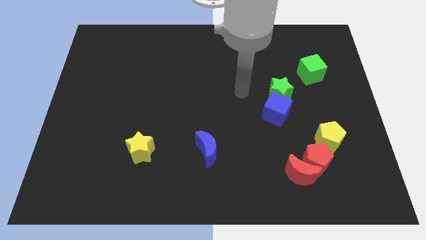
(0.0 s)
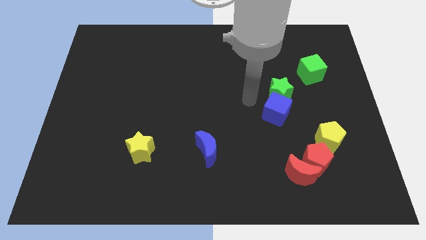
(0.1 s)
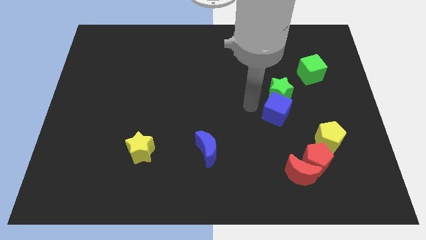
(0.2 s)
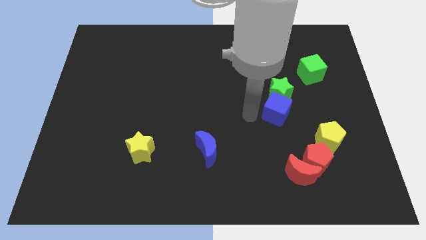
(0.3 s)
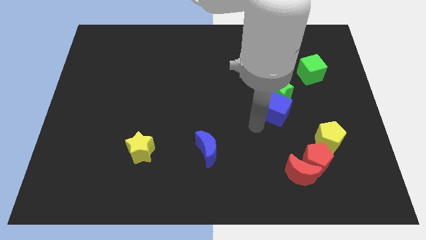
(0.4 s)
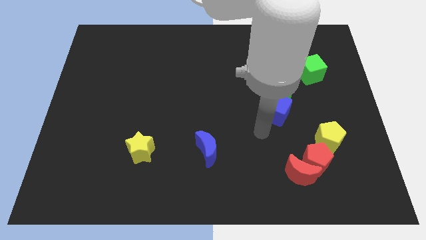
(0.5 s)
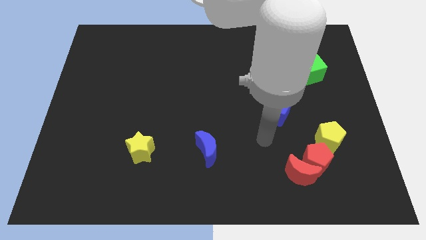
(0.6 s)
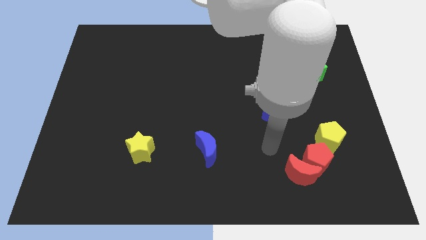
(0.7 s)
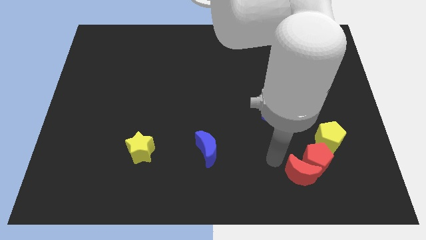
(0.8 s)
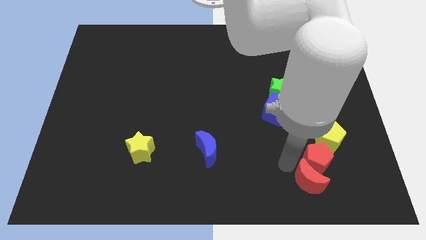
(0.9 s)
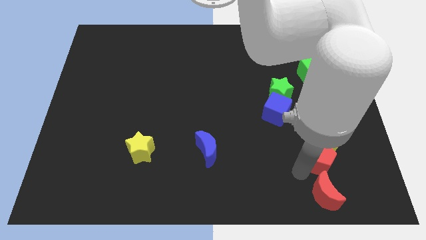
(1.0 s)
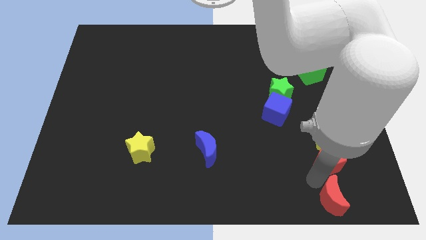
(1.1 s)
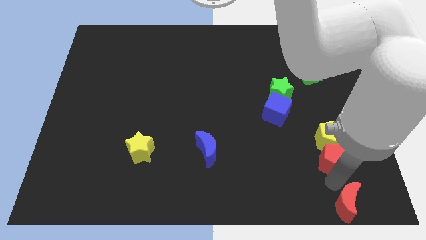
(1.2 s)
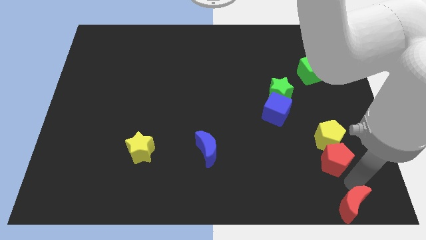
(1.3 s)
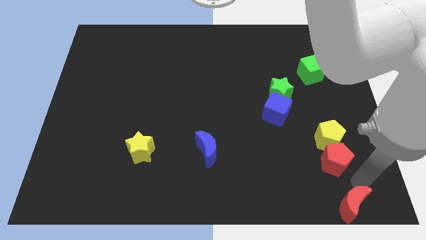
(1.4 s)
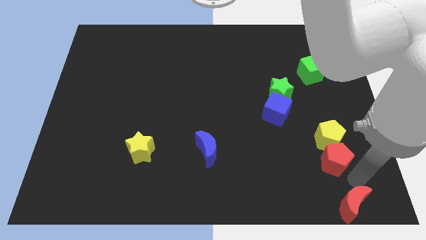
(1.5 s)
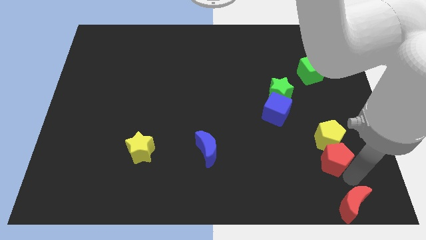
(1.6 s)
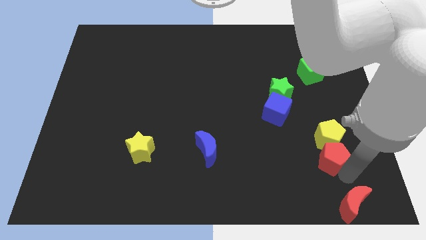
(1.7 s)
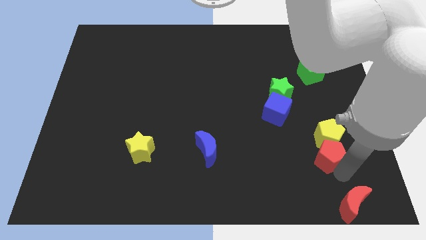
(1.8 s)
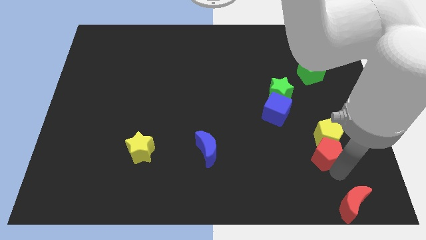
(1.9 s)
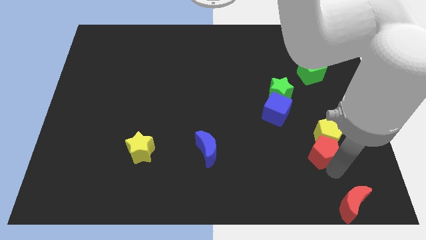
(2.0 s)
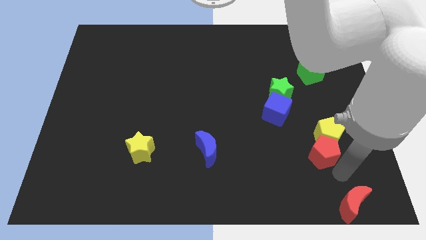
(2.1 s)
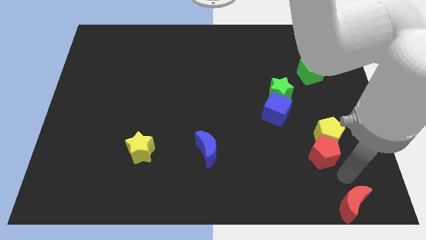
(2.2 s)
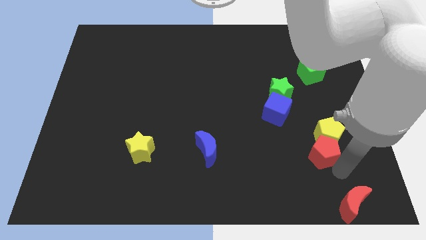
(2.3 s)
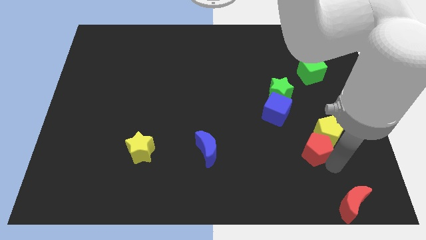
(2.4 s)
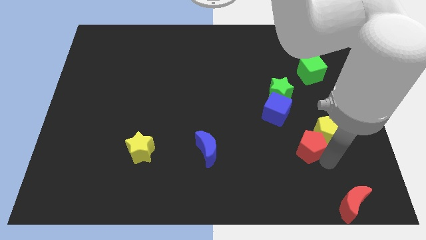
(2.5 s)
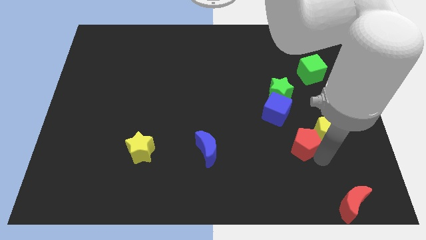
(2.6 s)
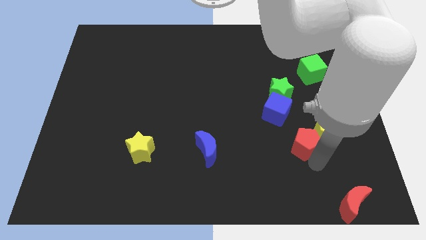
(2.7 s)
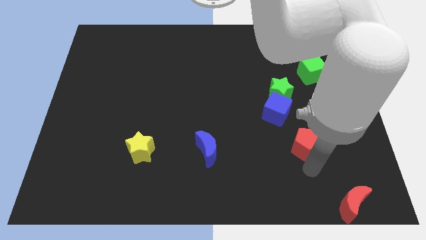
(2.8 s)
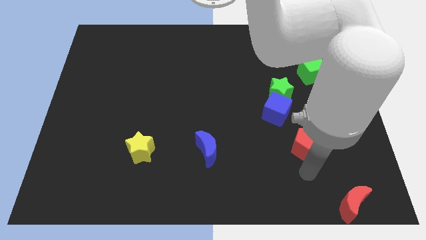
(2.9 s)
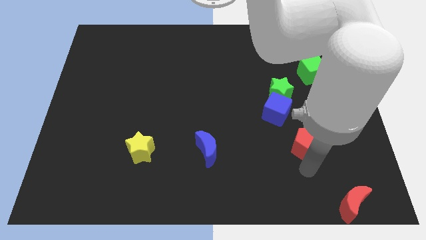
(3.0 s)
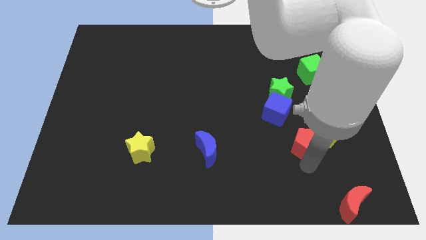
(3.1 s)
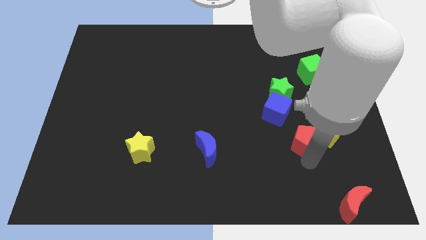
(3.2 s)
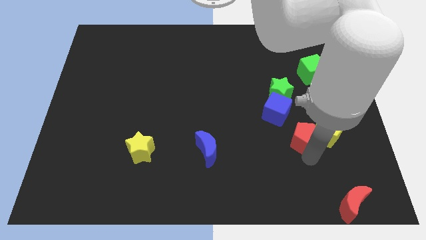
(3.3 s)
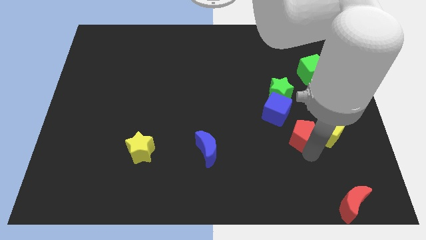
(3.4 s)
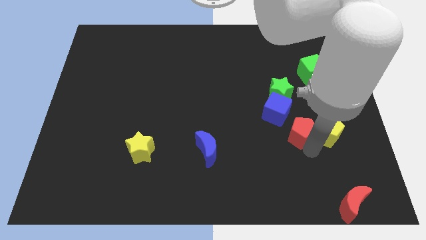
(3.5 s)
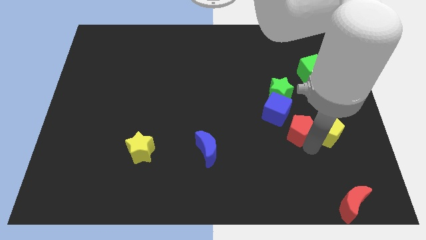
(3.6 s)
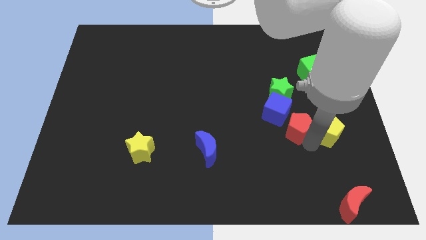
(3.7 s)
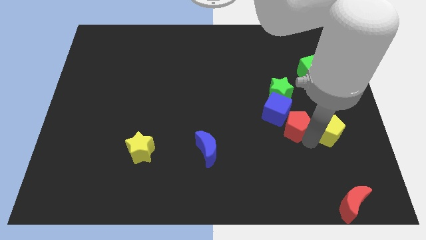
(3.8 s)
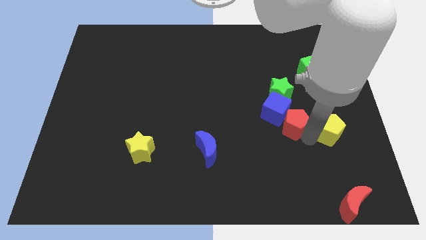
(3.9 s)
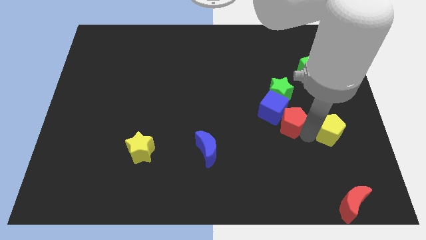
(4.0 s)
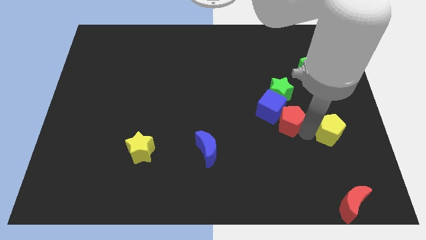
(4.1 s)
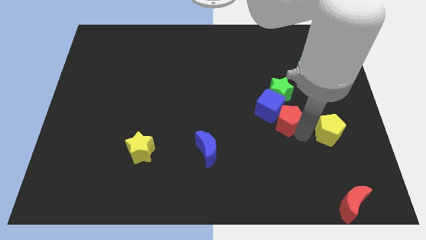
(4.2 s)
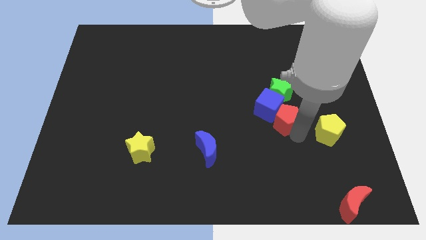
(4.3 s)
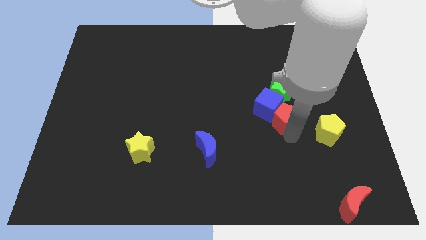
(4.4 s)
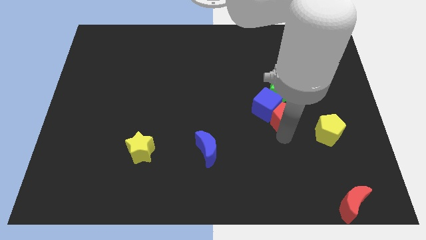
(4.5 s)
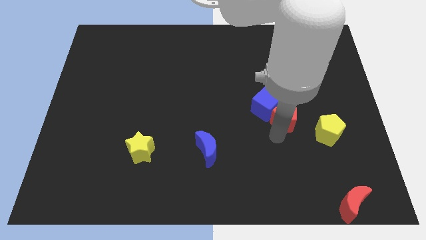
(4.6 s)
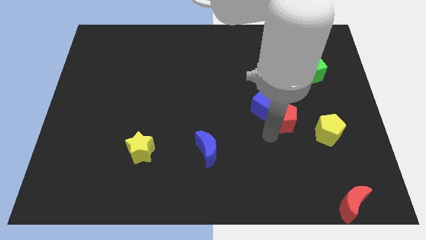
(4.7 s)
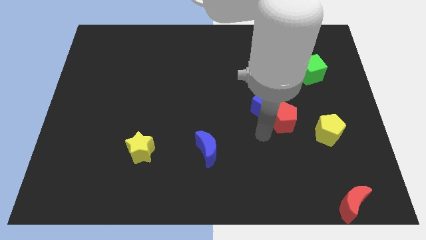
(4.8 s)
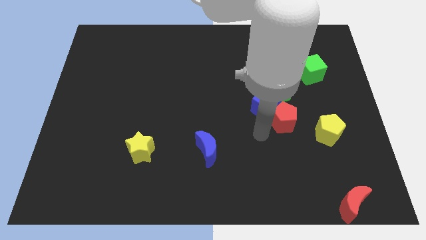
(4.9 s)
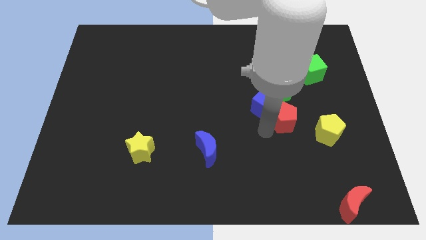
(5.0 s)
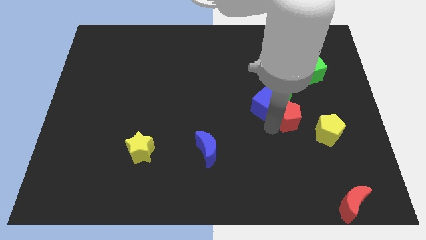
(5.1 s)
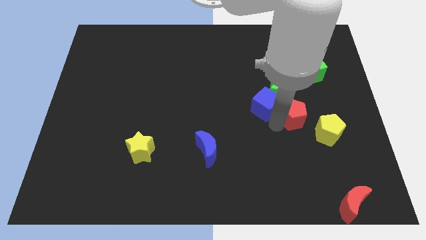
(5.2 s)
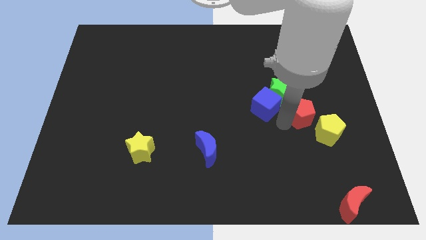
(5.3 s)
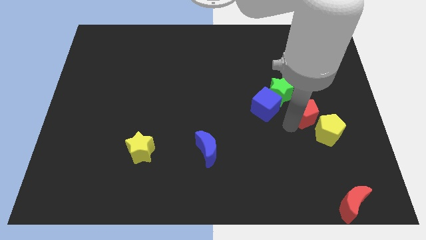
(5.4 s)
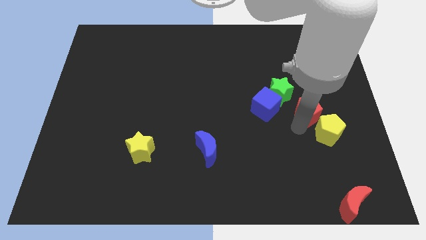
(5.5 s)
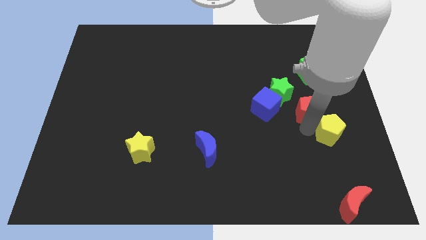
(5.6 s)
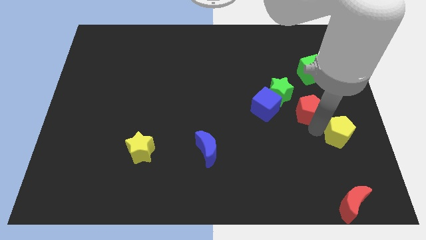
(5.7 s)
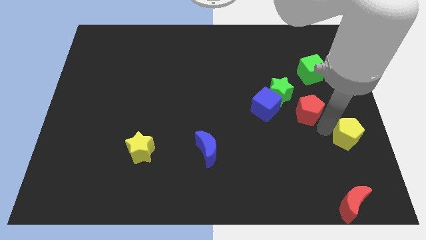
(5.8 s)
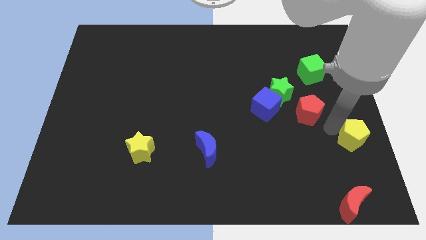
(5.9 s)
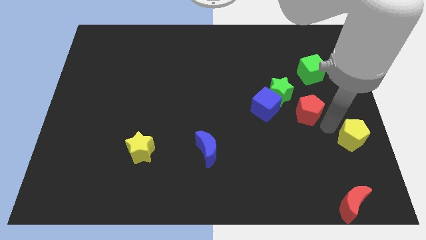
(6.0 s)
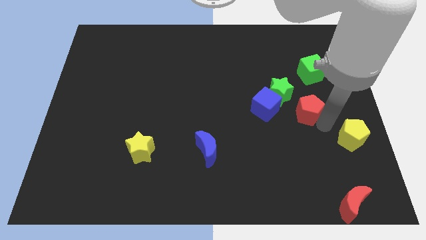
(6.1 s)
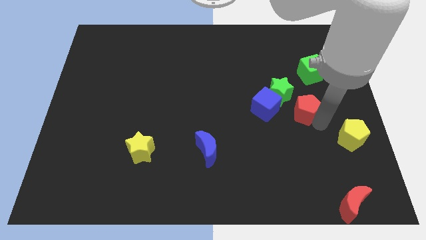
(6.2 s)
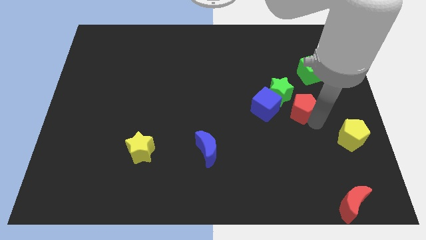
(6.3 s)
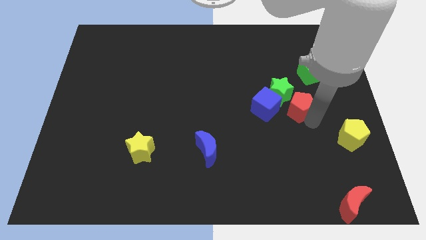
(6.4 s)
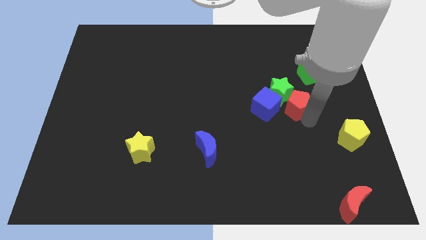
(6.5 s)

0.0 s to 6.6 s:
push the red pentagon close to the green star
